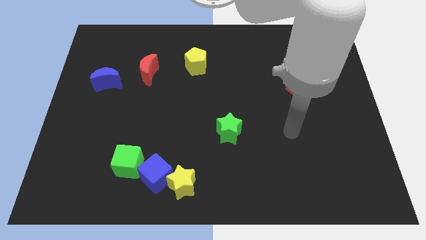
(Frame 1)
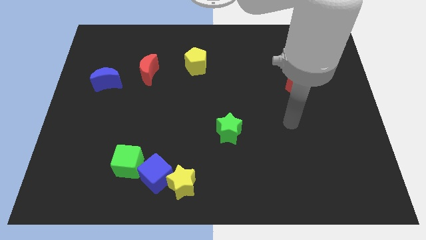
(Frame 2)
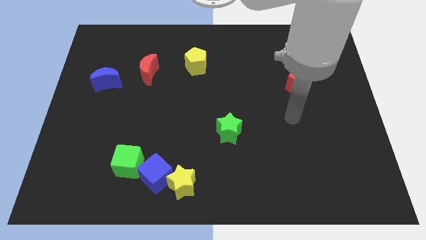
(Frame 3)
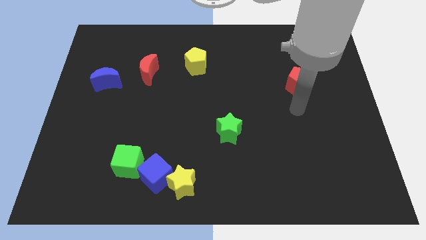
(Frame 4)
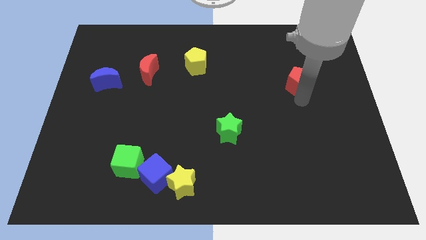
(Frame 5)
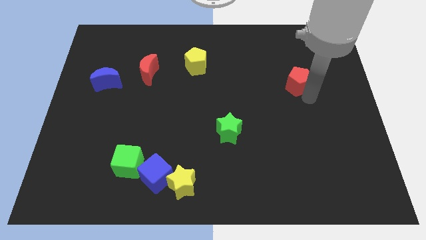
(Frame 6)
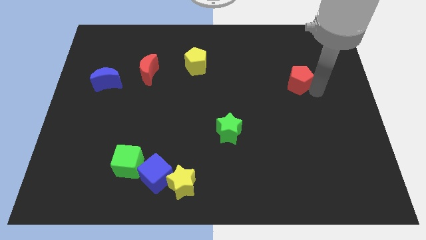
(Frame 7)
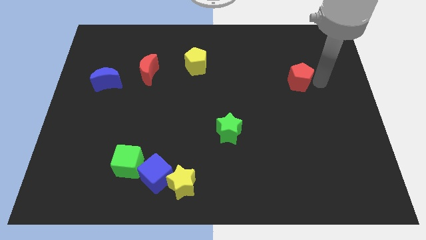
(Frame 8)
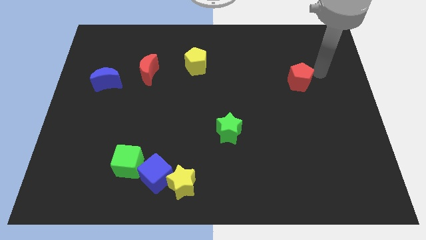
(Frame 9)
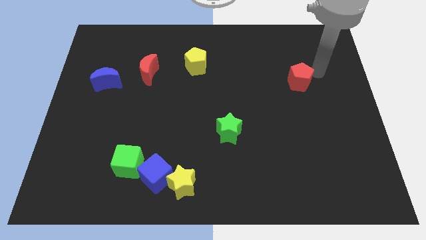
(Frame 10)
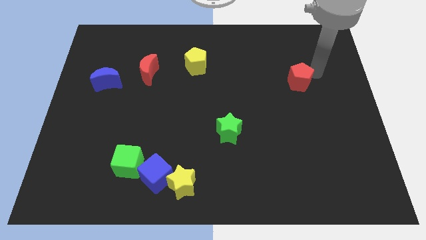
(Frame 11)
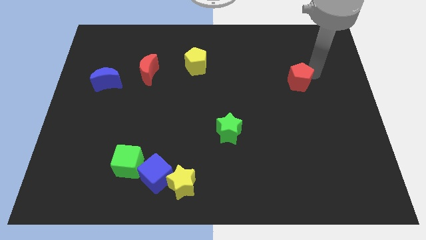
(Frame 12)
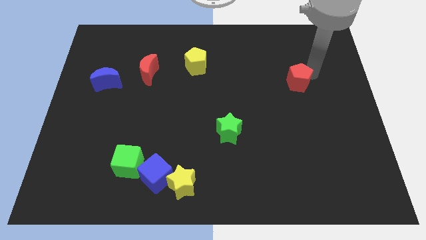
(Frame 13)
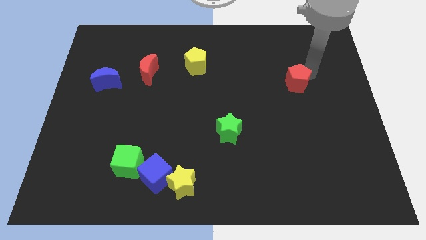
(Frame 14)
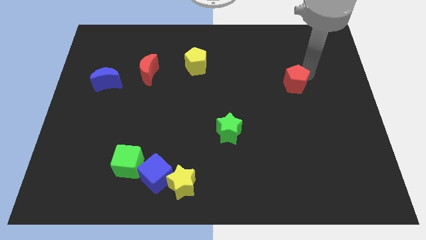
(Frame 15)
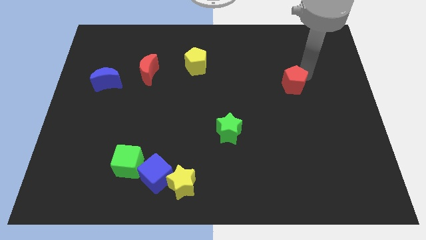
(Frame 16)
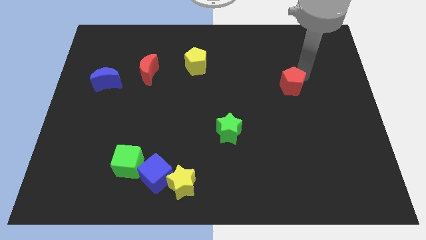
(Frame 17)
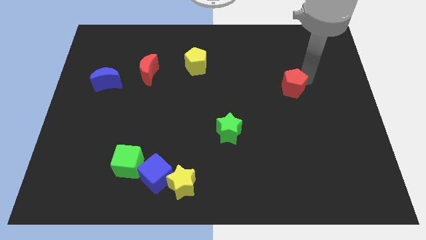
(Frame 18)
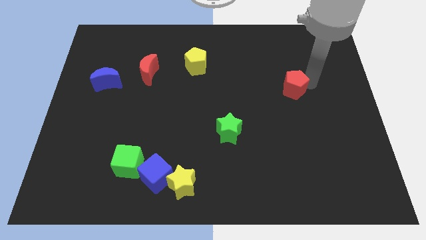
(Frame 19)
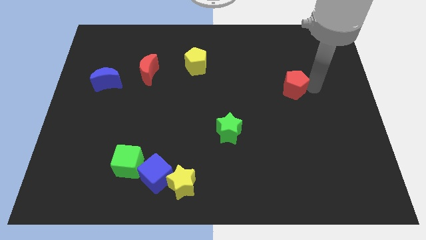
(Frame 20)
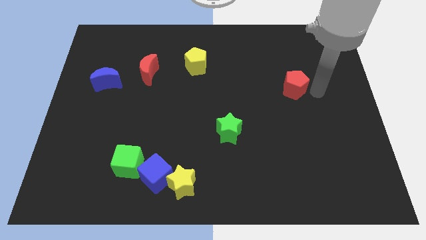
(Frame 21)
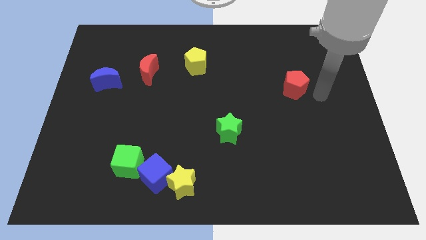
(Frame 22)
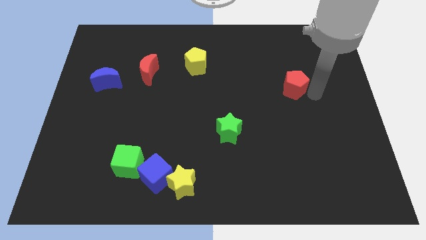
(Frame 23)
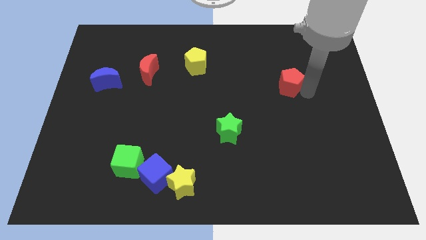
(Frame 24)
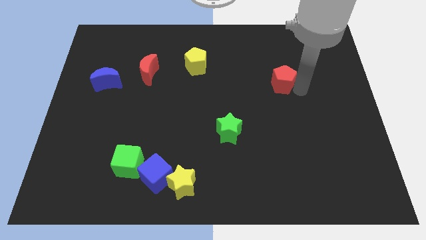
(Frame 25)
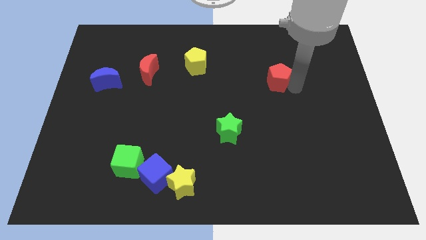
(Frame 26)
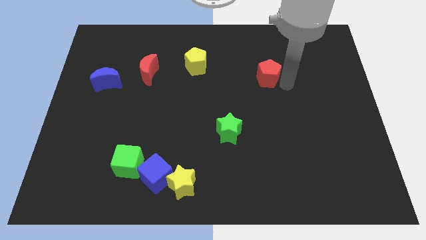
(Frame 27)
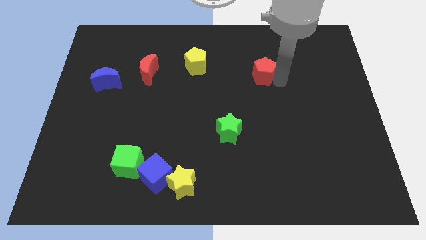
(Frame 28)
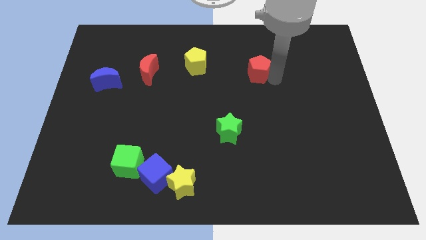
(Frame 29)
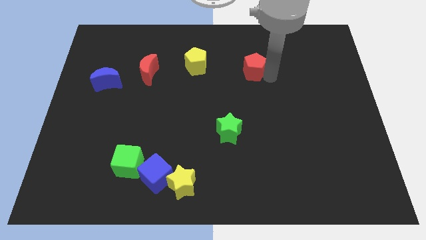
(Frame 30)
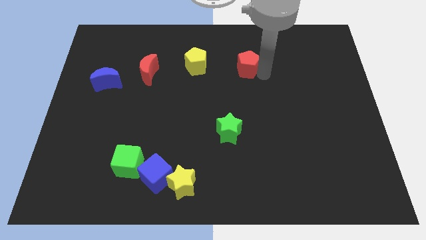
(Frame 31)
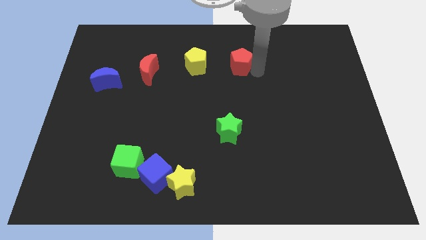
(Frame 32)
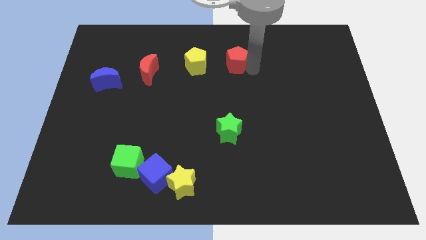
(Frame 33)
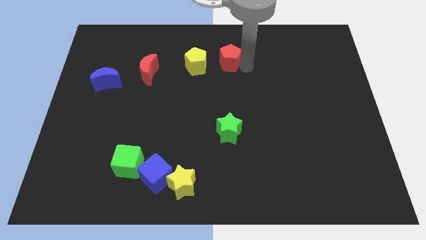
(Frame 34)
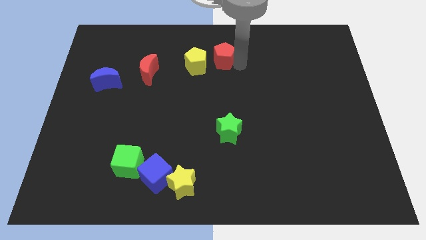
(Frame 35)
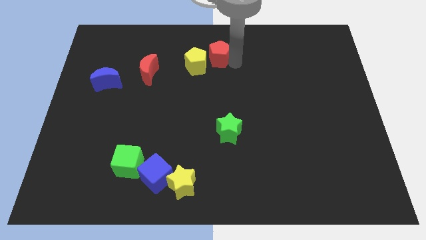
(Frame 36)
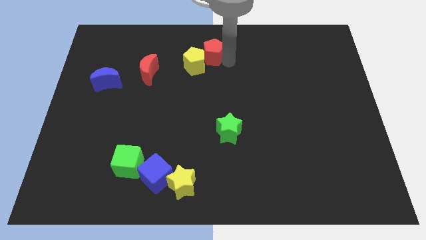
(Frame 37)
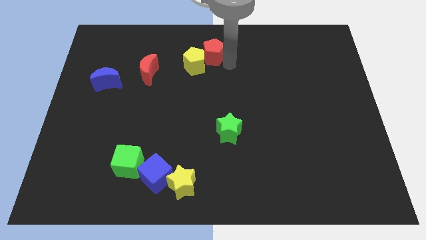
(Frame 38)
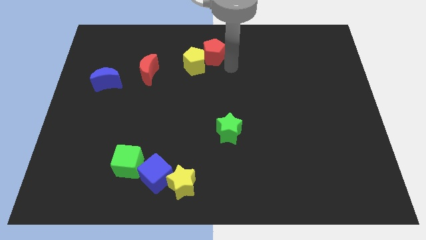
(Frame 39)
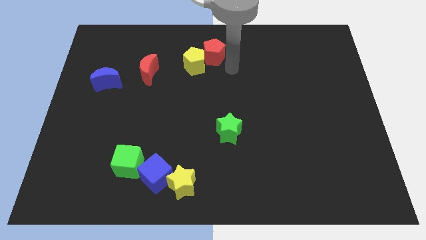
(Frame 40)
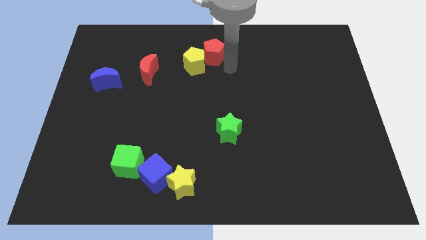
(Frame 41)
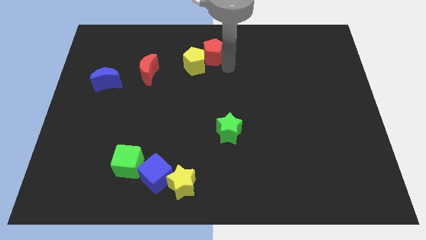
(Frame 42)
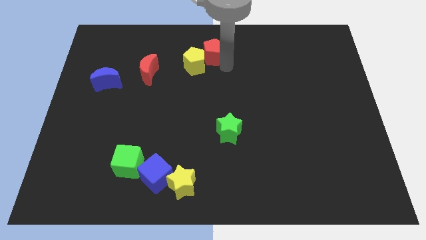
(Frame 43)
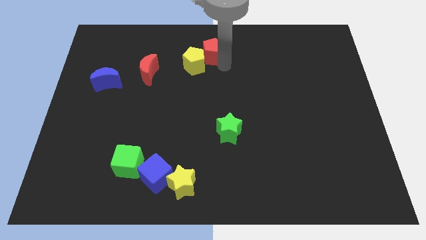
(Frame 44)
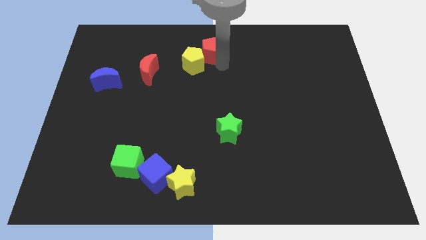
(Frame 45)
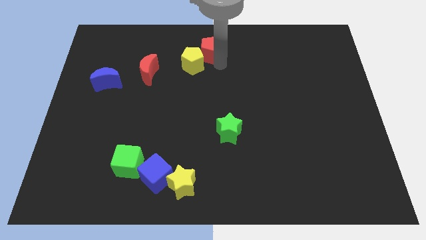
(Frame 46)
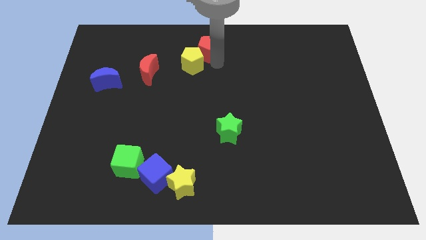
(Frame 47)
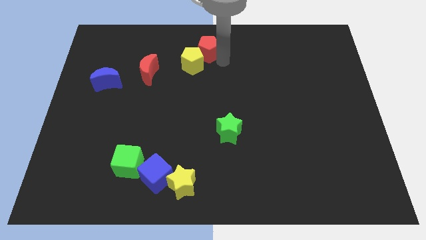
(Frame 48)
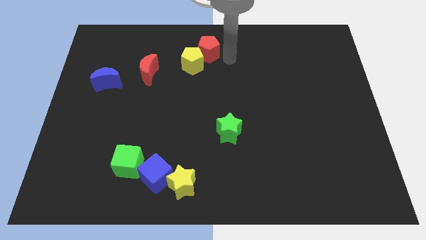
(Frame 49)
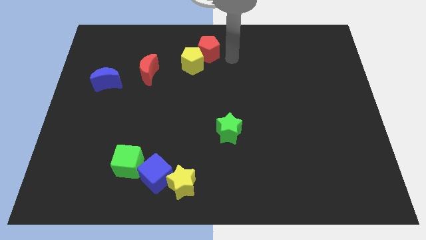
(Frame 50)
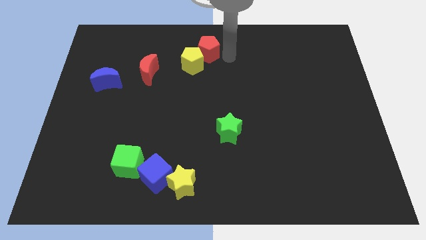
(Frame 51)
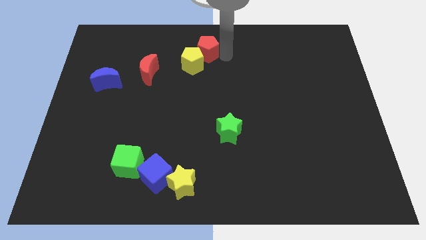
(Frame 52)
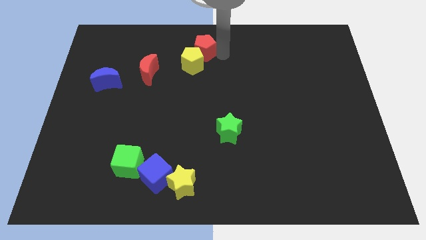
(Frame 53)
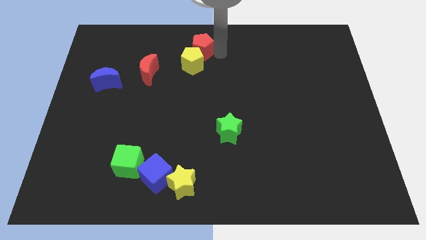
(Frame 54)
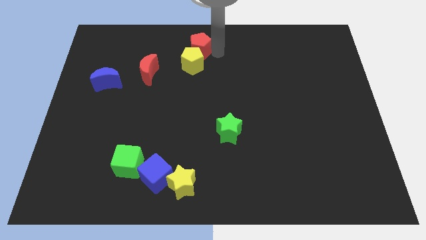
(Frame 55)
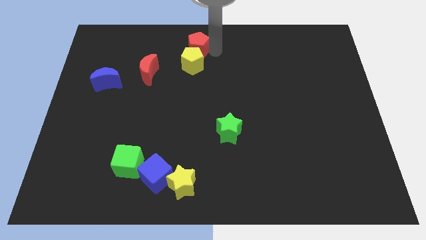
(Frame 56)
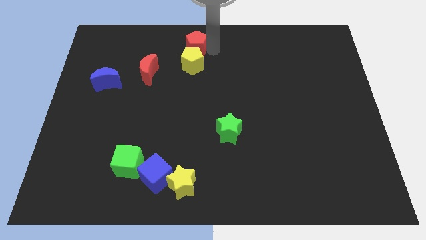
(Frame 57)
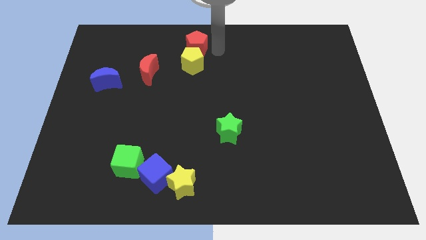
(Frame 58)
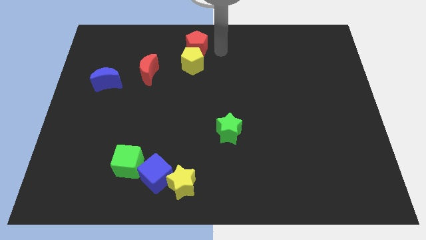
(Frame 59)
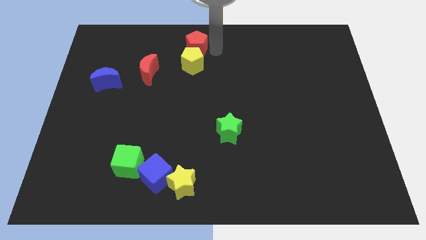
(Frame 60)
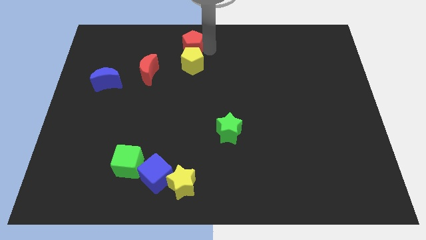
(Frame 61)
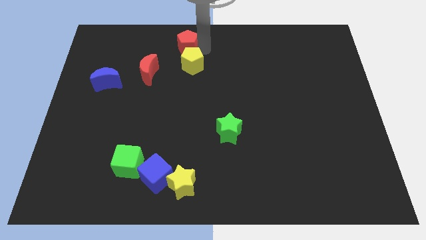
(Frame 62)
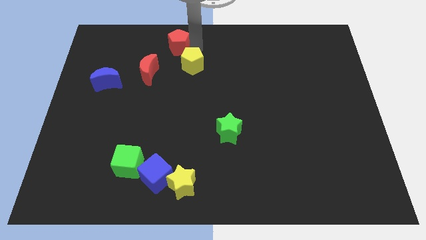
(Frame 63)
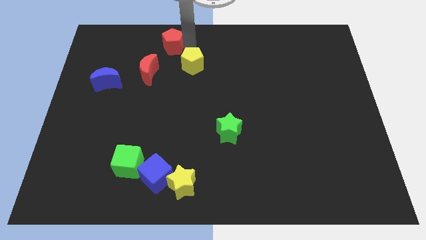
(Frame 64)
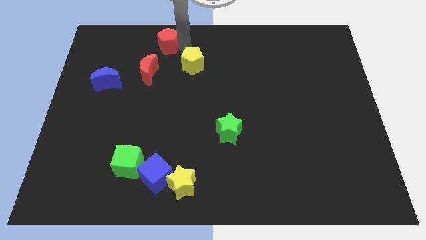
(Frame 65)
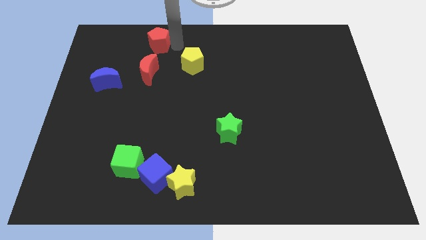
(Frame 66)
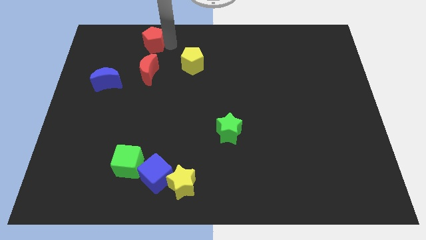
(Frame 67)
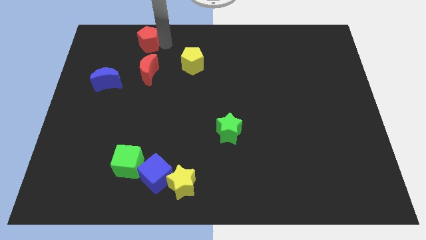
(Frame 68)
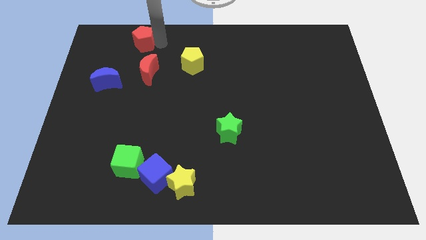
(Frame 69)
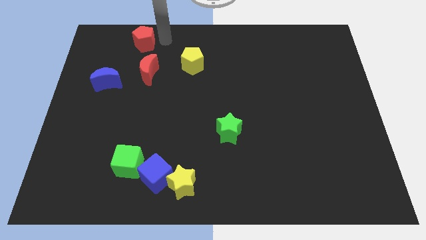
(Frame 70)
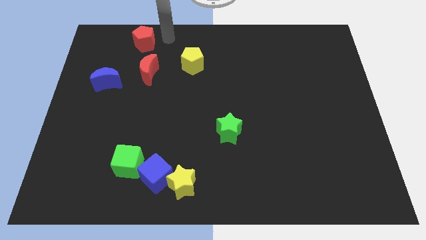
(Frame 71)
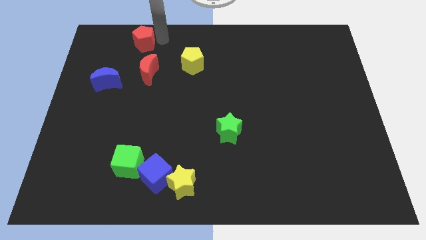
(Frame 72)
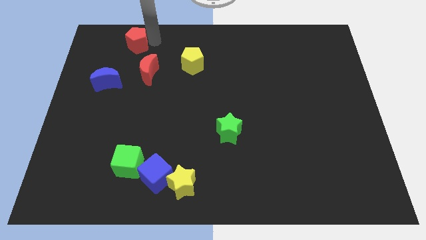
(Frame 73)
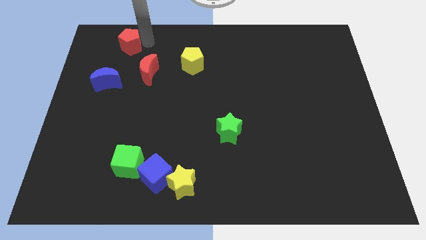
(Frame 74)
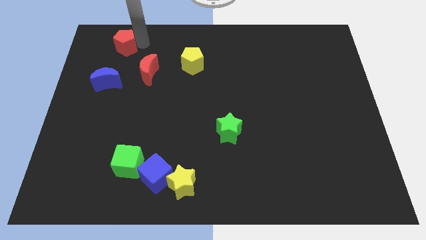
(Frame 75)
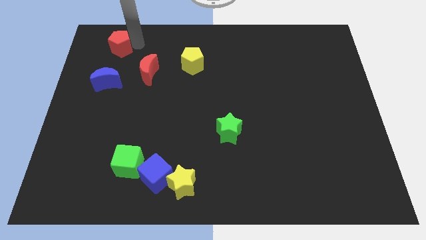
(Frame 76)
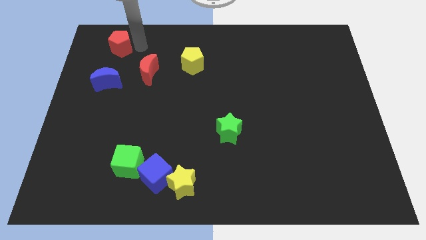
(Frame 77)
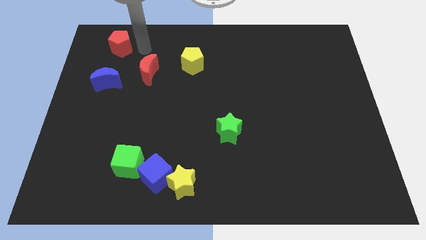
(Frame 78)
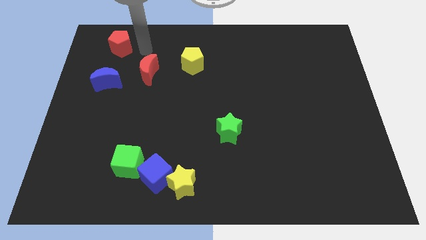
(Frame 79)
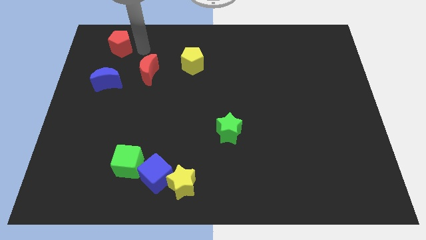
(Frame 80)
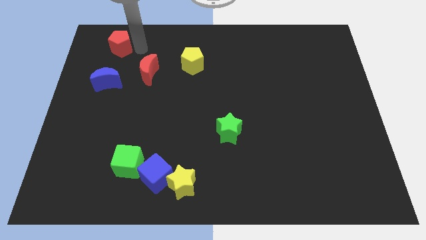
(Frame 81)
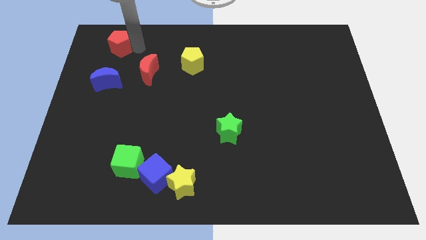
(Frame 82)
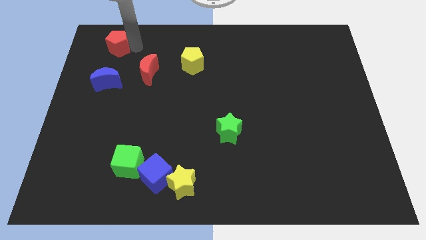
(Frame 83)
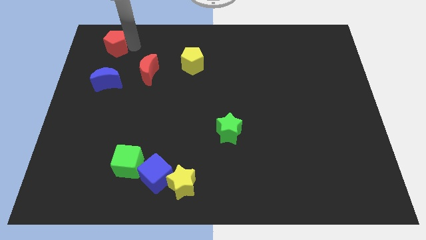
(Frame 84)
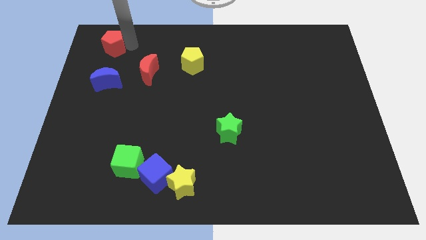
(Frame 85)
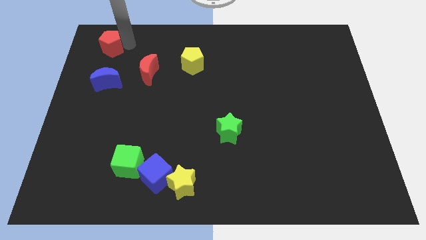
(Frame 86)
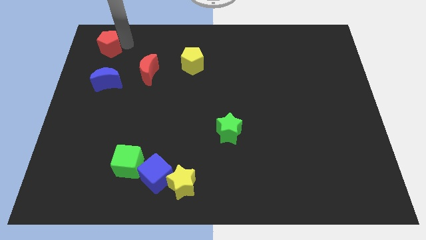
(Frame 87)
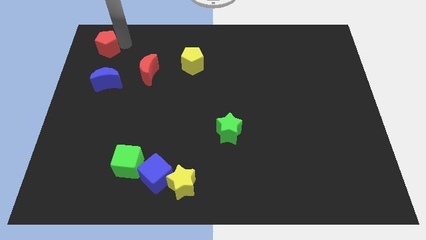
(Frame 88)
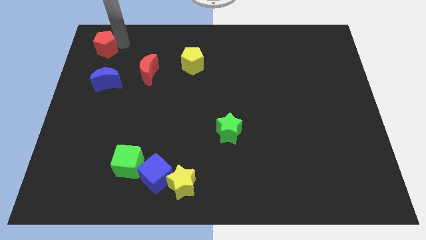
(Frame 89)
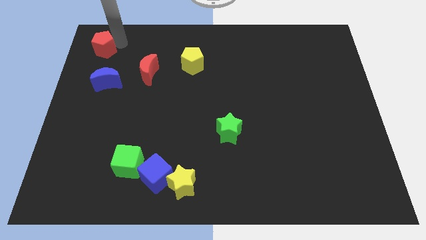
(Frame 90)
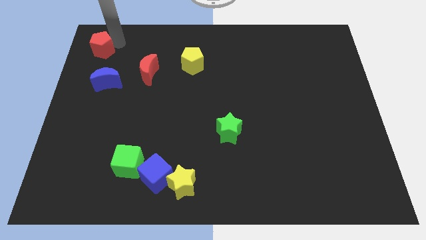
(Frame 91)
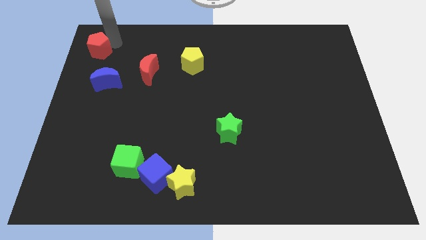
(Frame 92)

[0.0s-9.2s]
put the red pentagon to the top left corner
